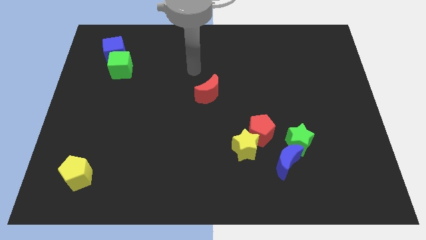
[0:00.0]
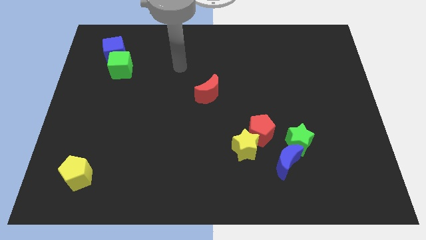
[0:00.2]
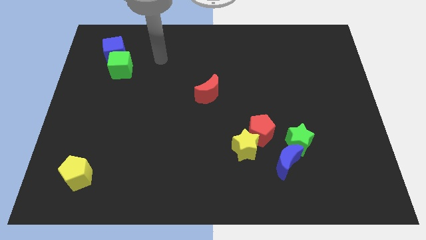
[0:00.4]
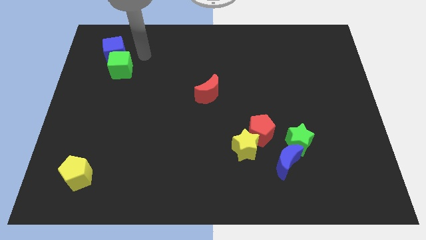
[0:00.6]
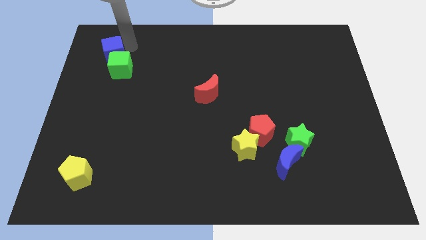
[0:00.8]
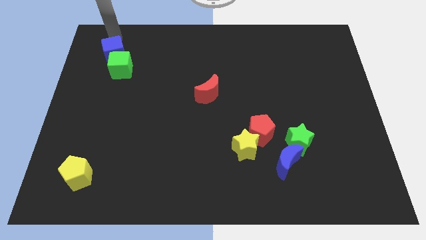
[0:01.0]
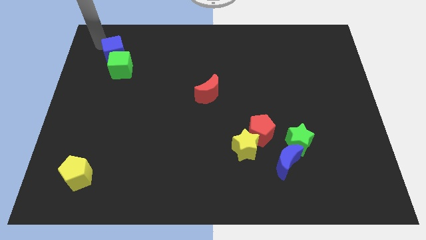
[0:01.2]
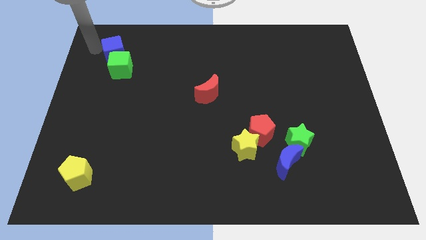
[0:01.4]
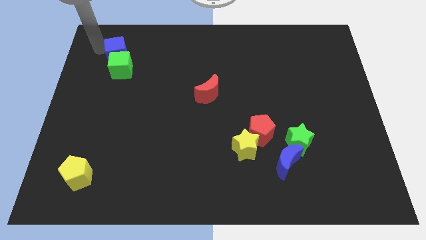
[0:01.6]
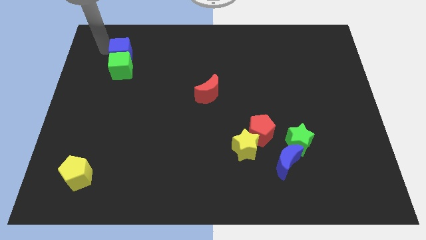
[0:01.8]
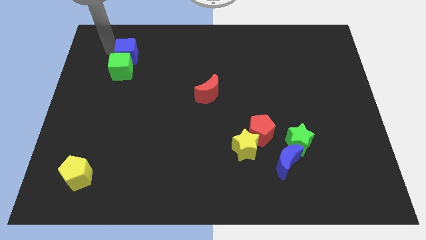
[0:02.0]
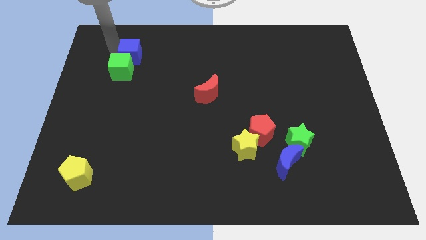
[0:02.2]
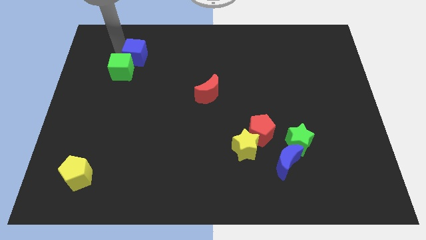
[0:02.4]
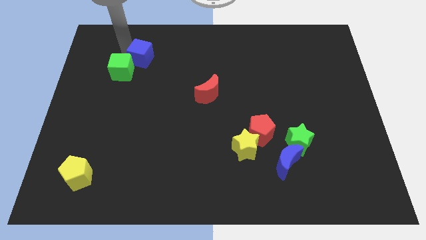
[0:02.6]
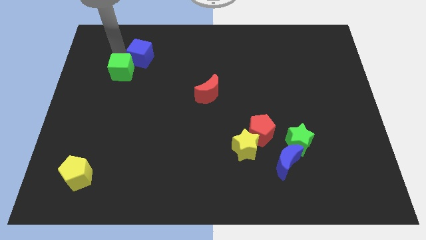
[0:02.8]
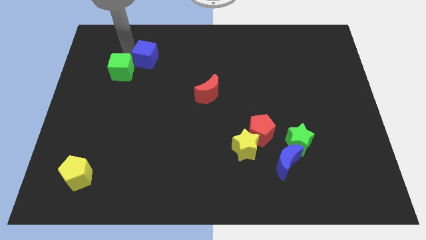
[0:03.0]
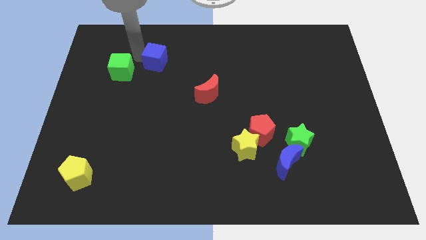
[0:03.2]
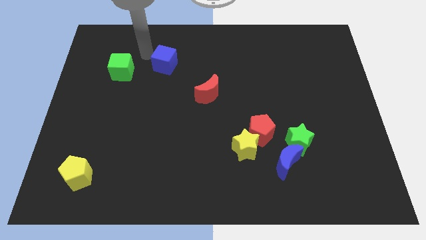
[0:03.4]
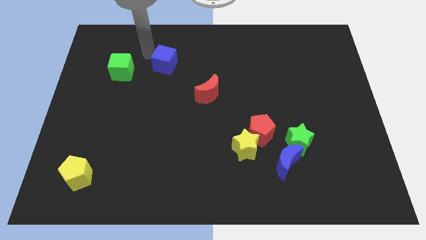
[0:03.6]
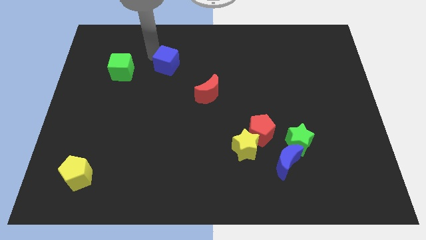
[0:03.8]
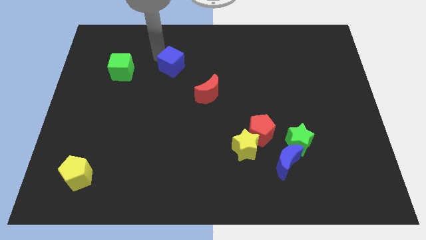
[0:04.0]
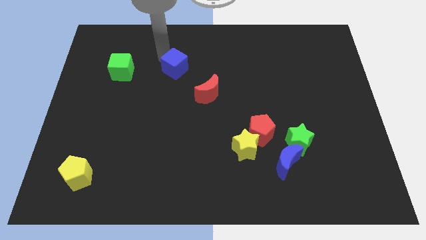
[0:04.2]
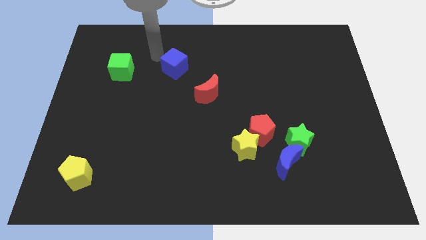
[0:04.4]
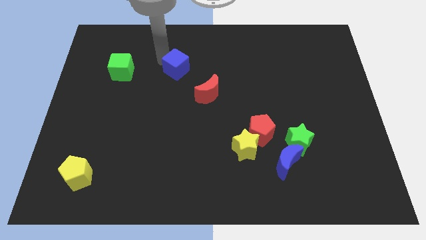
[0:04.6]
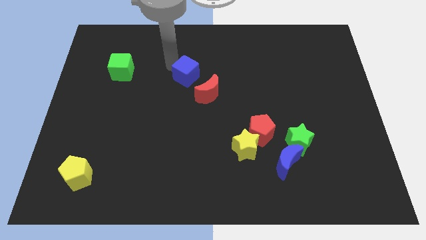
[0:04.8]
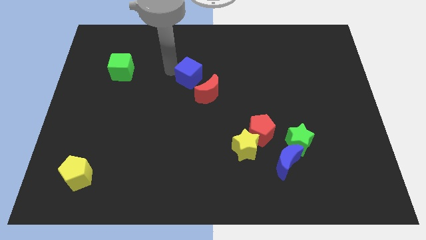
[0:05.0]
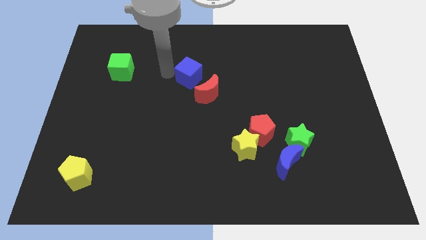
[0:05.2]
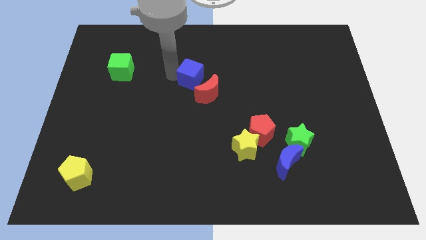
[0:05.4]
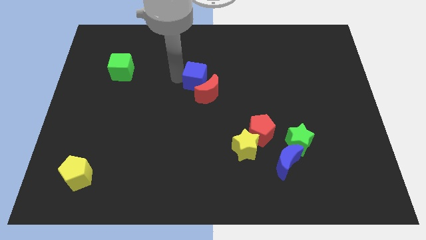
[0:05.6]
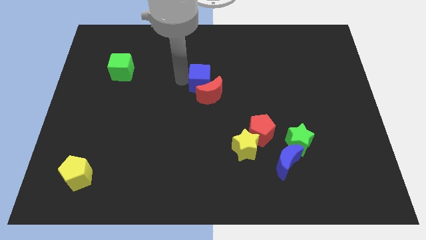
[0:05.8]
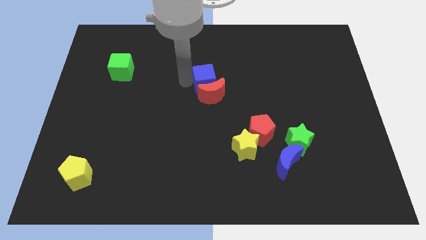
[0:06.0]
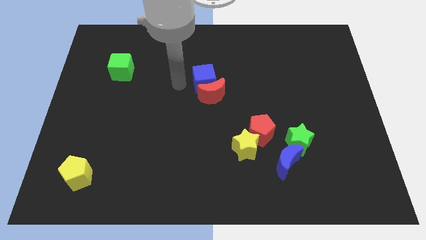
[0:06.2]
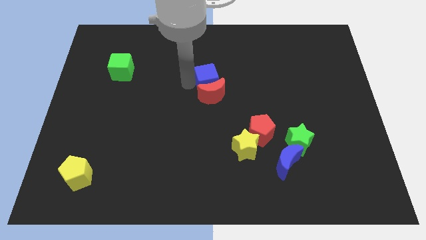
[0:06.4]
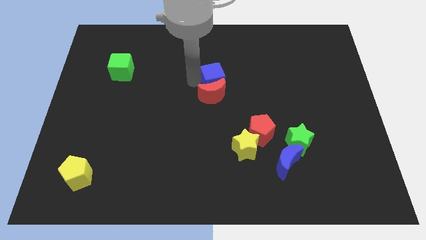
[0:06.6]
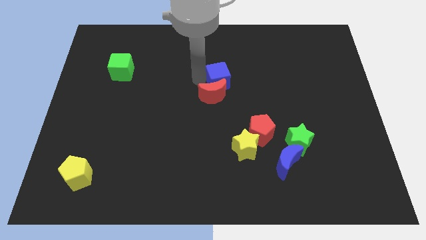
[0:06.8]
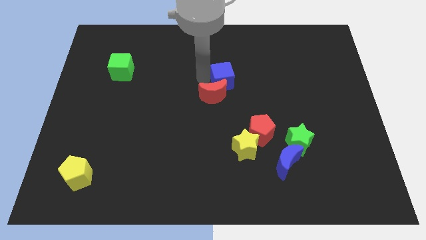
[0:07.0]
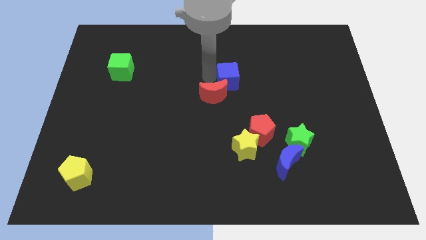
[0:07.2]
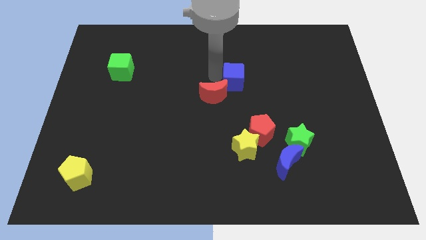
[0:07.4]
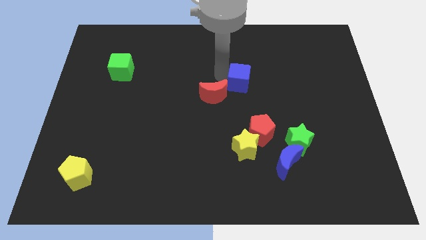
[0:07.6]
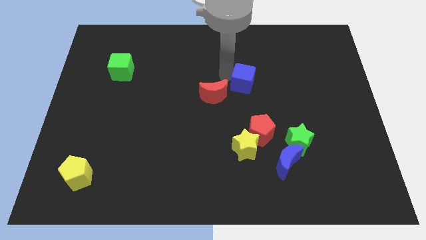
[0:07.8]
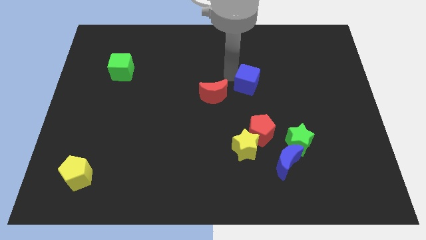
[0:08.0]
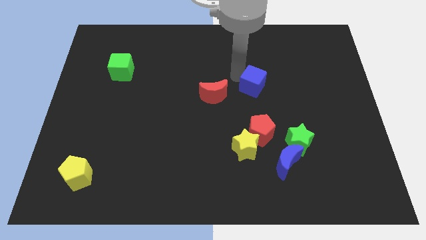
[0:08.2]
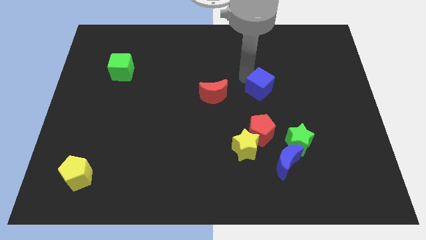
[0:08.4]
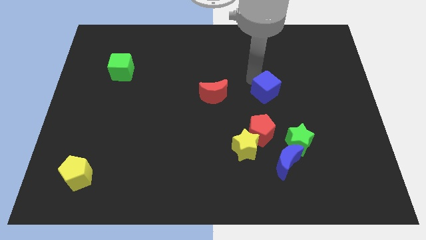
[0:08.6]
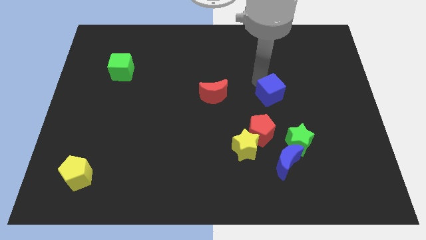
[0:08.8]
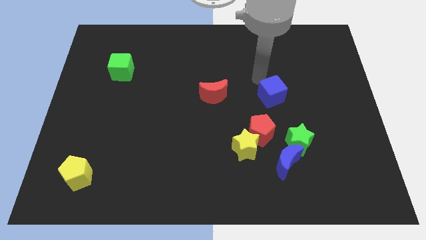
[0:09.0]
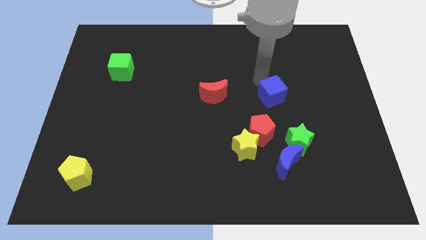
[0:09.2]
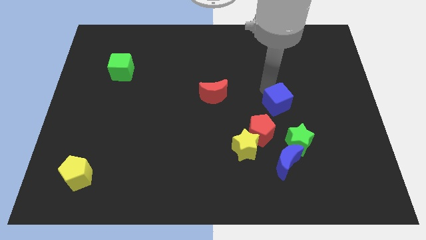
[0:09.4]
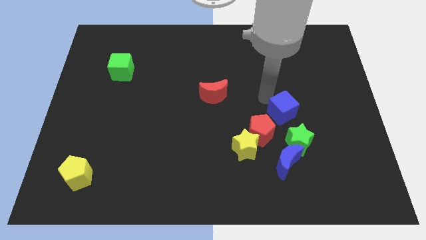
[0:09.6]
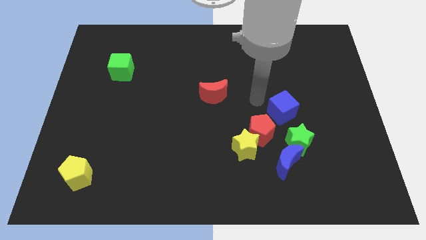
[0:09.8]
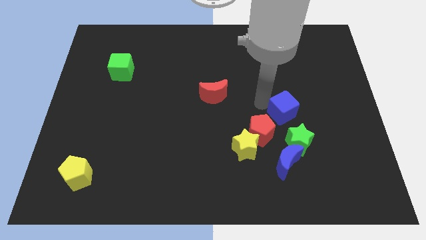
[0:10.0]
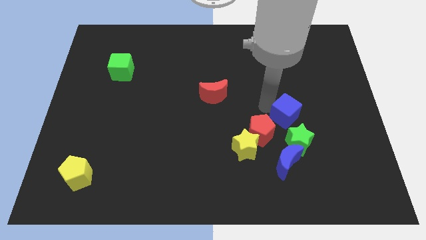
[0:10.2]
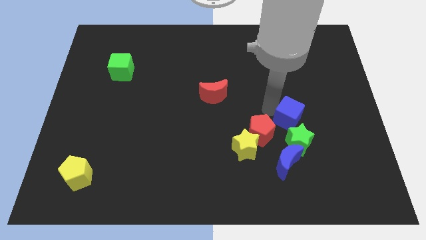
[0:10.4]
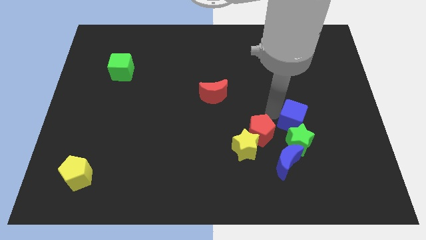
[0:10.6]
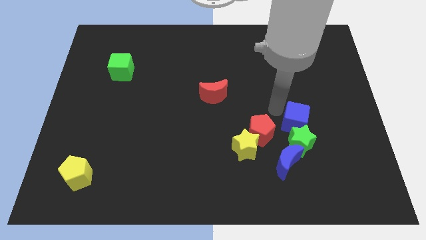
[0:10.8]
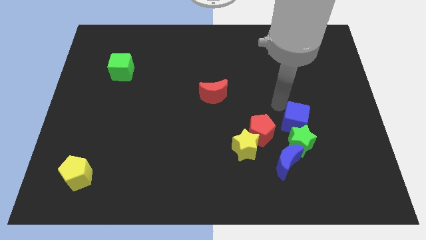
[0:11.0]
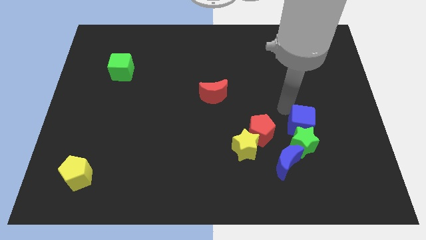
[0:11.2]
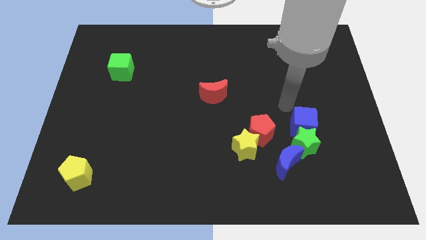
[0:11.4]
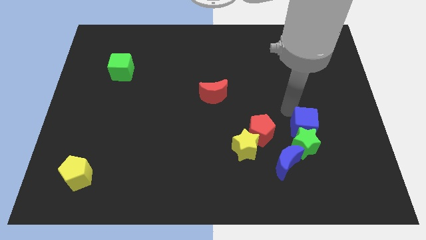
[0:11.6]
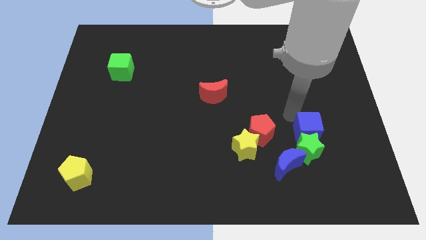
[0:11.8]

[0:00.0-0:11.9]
slide the blue cube to the right side of the yellow star
